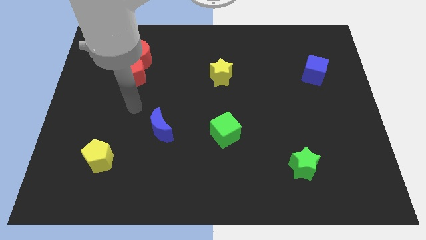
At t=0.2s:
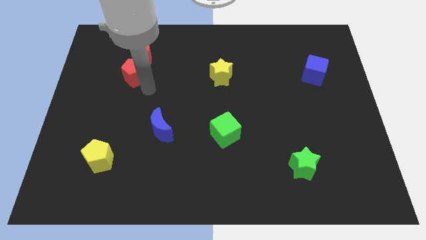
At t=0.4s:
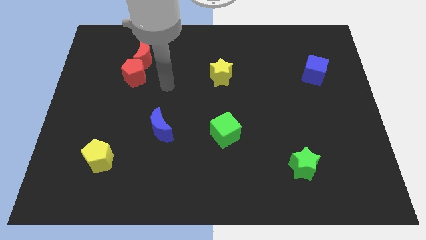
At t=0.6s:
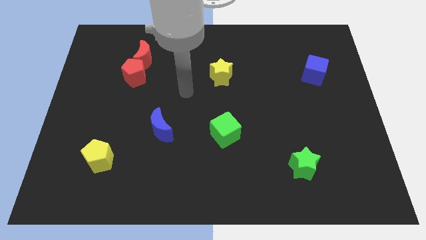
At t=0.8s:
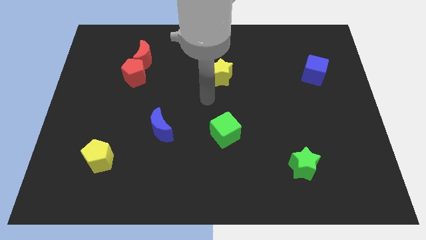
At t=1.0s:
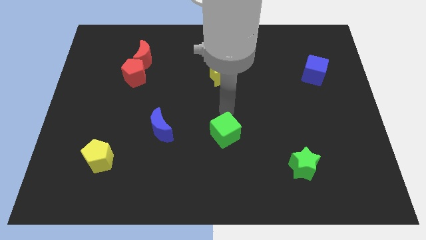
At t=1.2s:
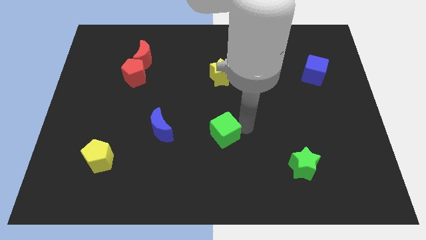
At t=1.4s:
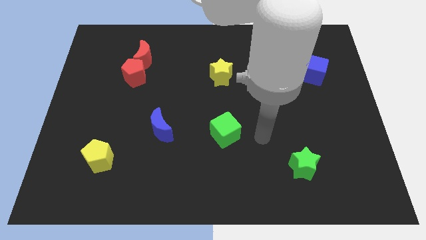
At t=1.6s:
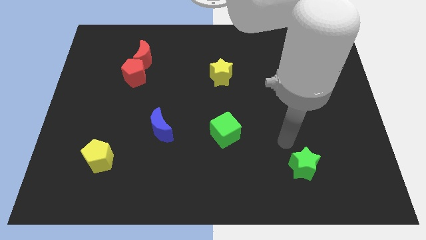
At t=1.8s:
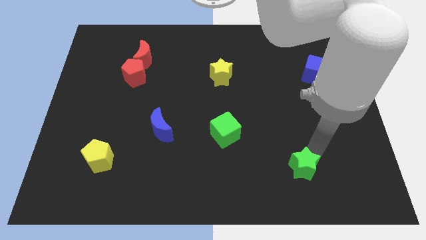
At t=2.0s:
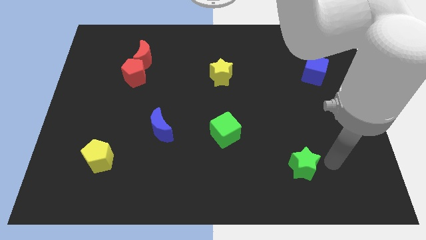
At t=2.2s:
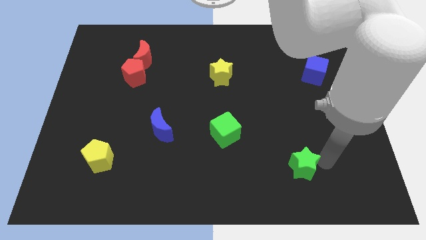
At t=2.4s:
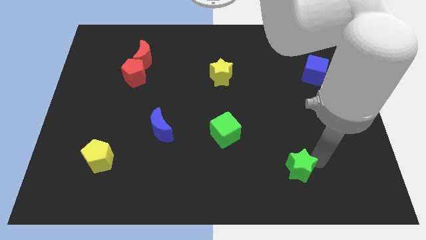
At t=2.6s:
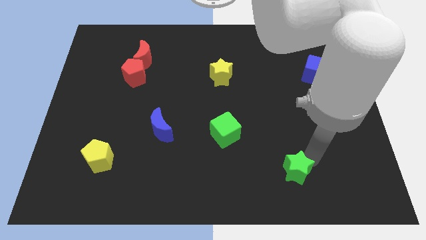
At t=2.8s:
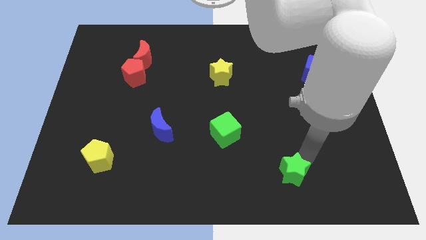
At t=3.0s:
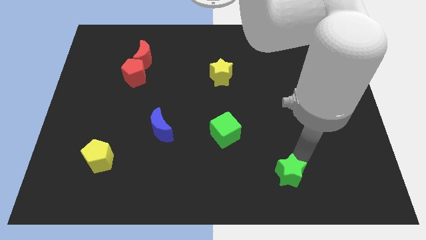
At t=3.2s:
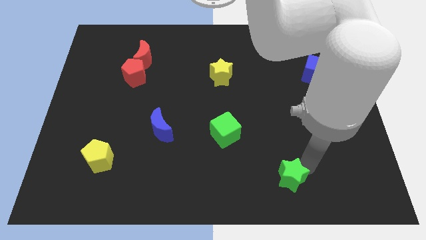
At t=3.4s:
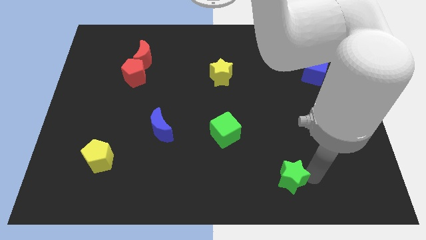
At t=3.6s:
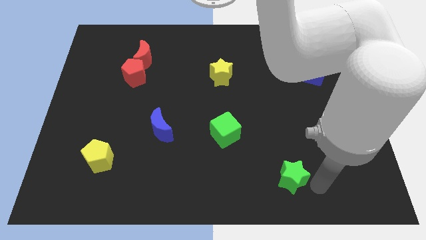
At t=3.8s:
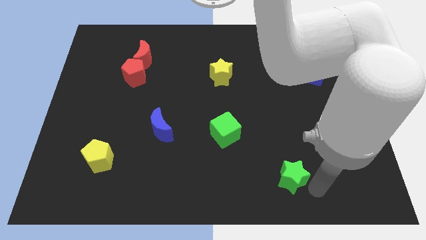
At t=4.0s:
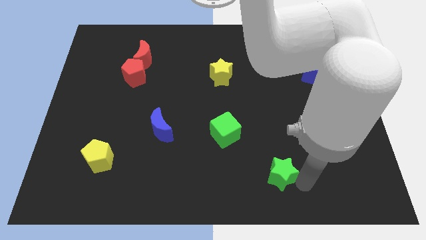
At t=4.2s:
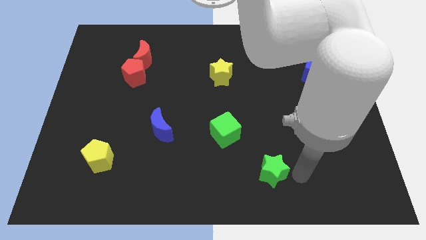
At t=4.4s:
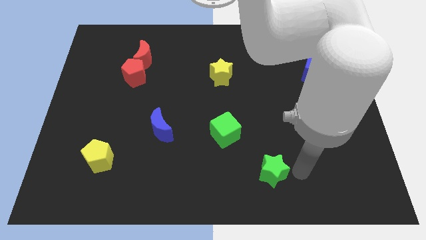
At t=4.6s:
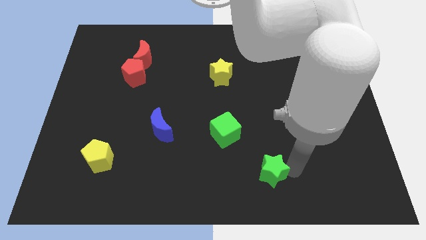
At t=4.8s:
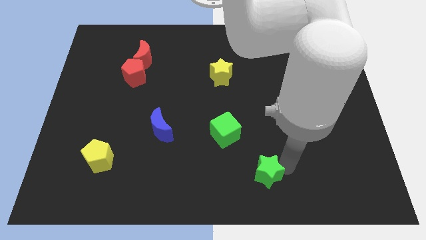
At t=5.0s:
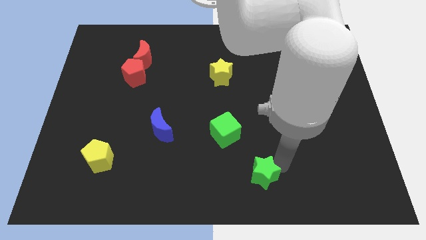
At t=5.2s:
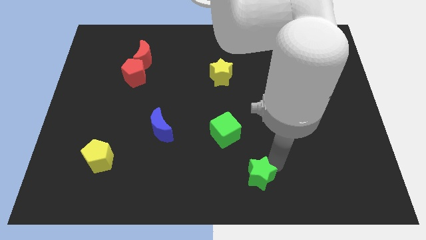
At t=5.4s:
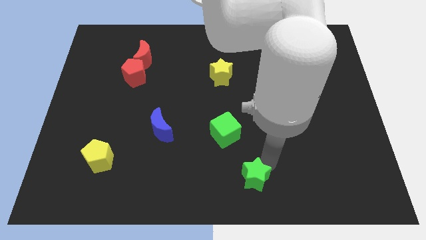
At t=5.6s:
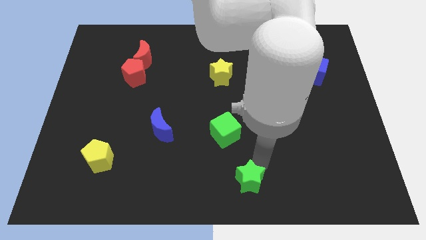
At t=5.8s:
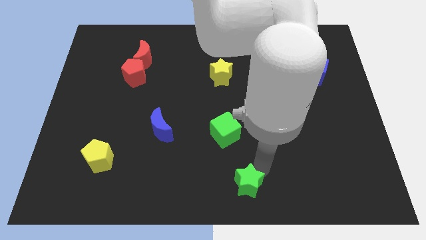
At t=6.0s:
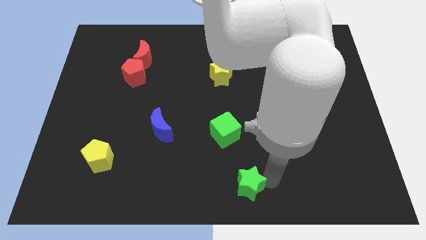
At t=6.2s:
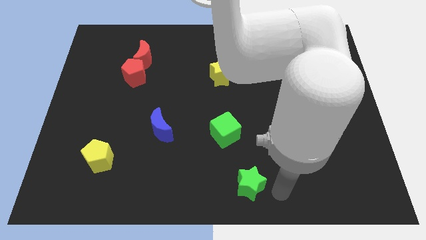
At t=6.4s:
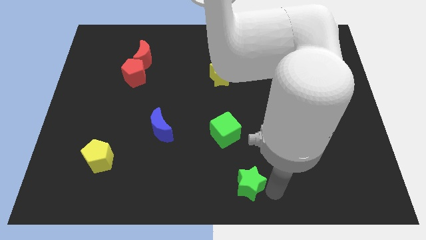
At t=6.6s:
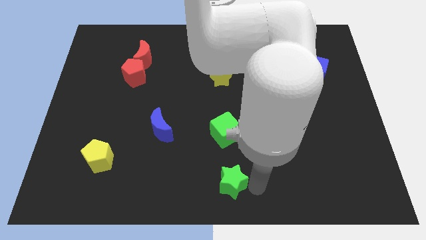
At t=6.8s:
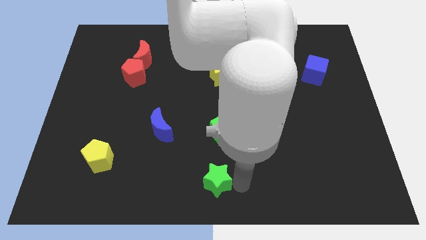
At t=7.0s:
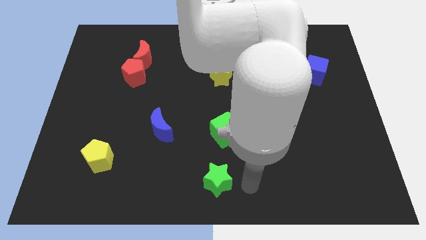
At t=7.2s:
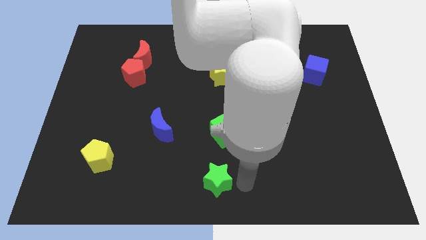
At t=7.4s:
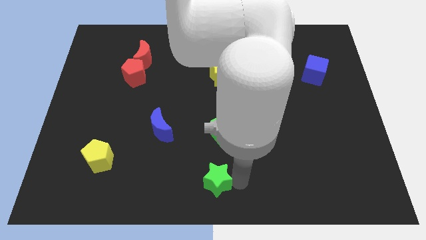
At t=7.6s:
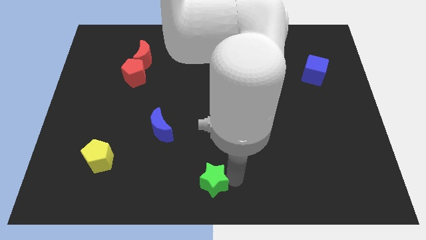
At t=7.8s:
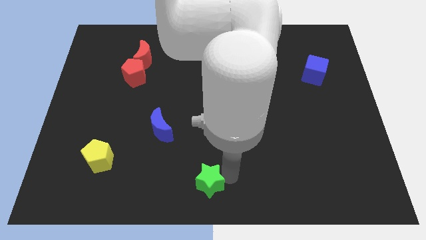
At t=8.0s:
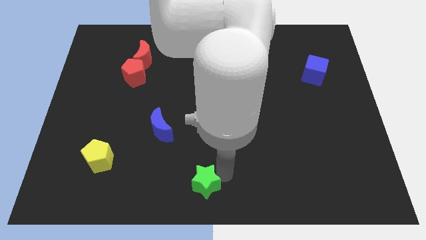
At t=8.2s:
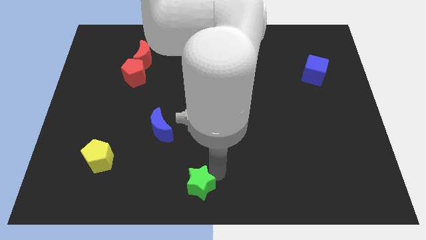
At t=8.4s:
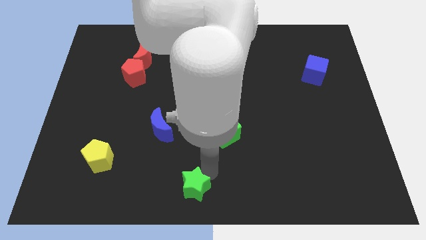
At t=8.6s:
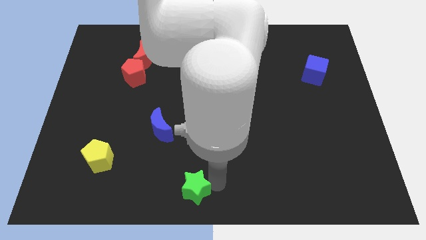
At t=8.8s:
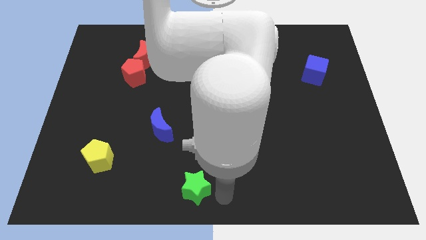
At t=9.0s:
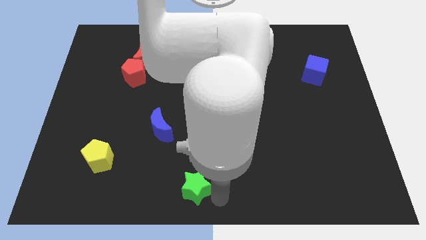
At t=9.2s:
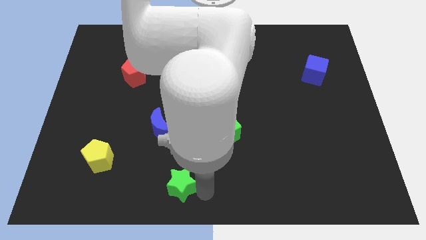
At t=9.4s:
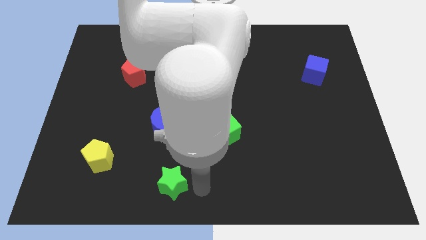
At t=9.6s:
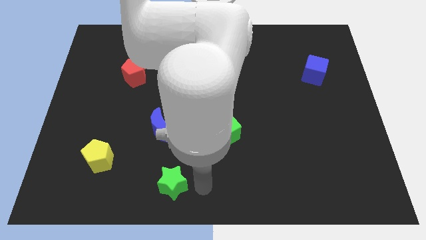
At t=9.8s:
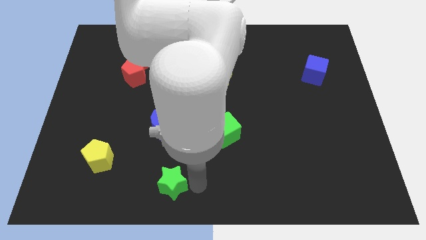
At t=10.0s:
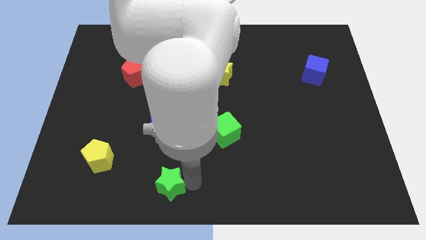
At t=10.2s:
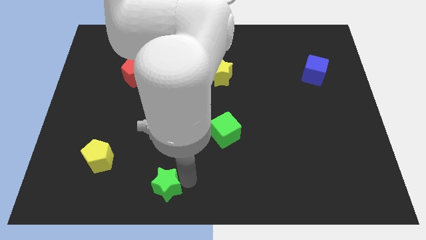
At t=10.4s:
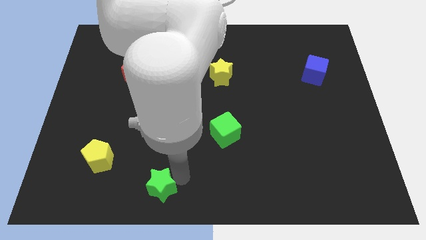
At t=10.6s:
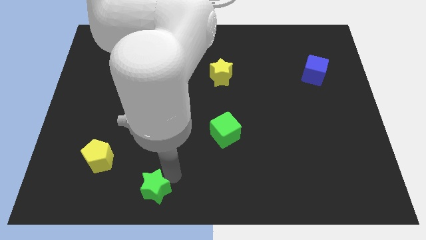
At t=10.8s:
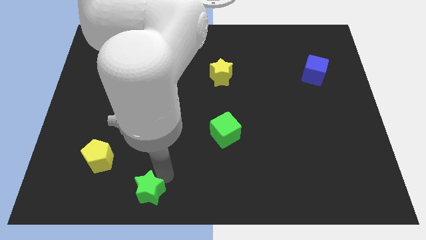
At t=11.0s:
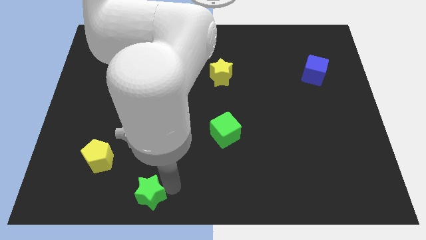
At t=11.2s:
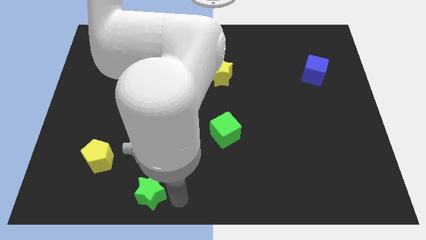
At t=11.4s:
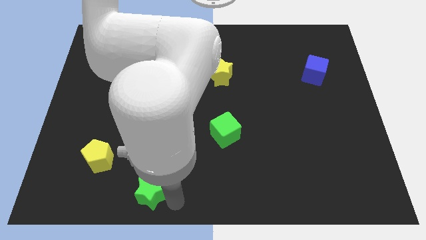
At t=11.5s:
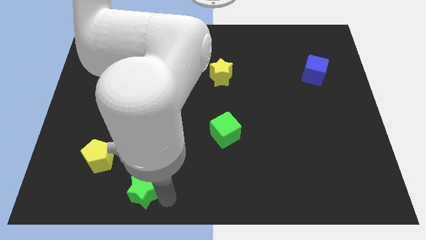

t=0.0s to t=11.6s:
slide the green star to the bottom right of the yellow pentagon

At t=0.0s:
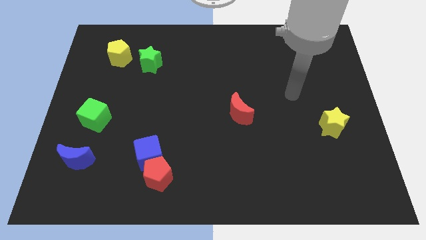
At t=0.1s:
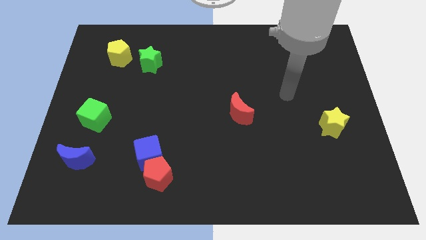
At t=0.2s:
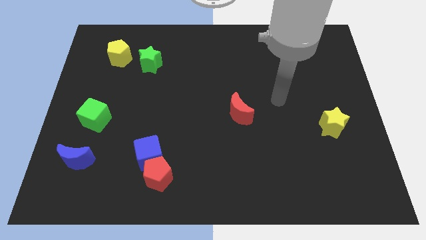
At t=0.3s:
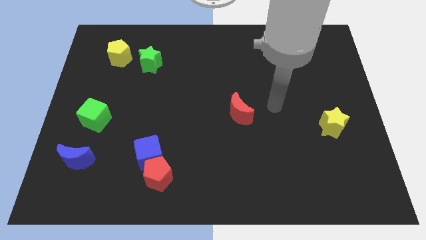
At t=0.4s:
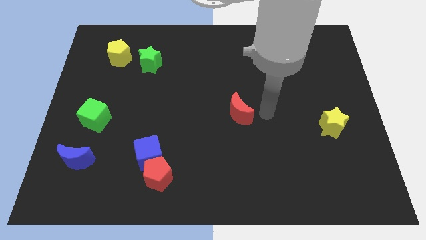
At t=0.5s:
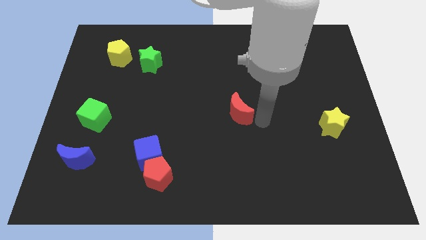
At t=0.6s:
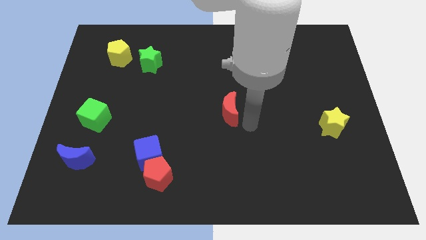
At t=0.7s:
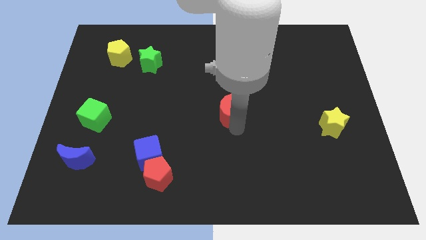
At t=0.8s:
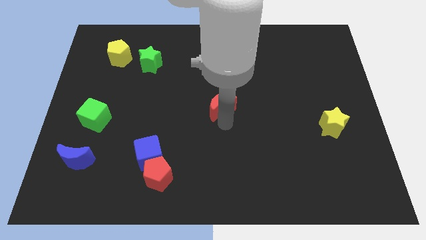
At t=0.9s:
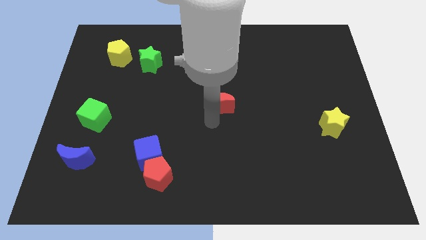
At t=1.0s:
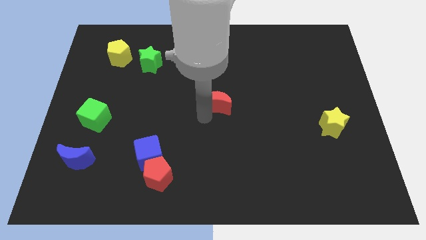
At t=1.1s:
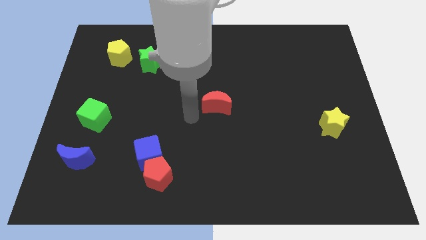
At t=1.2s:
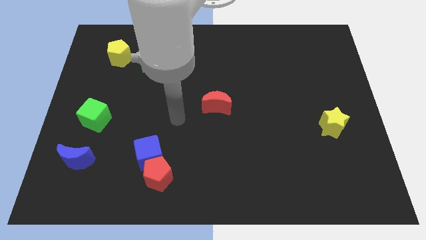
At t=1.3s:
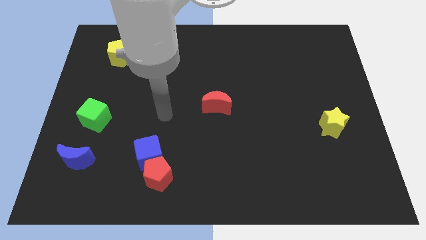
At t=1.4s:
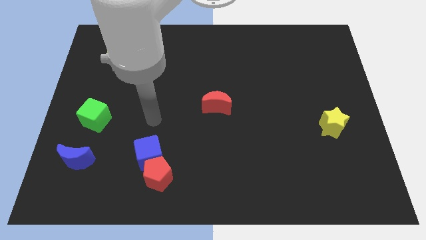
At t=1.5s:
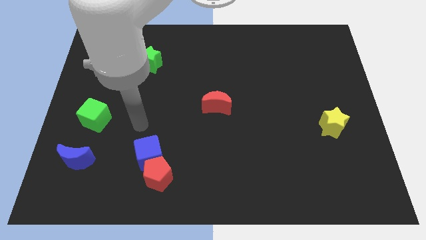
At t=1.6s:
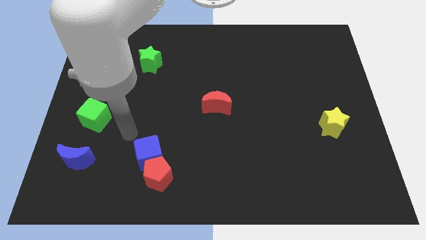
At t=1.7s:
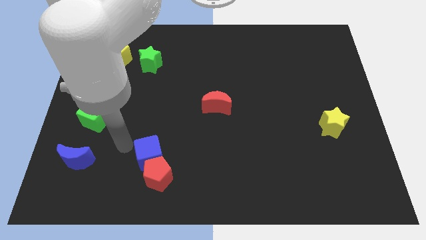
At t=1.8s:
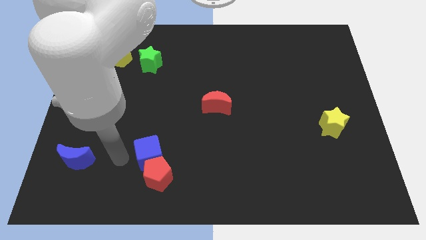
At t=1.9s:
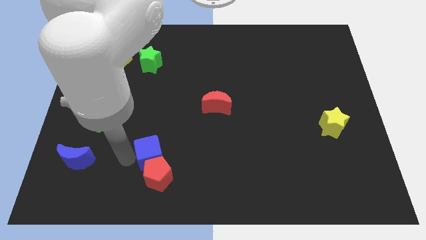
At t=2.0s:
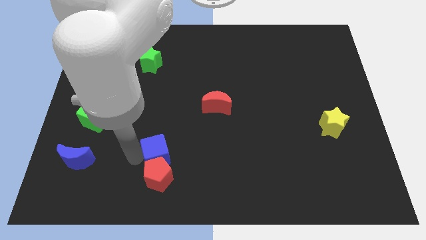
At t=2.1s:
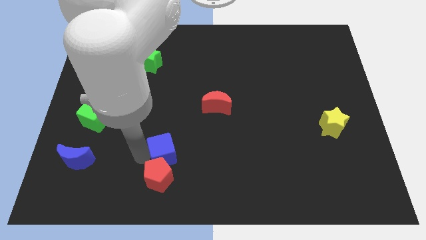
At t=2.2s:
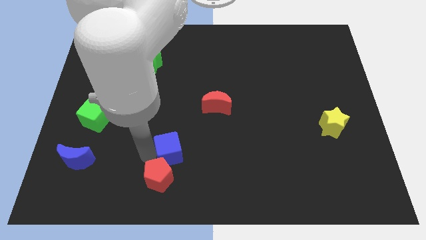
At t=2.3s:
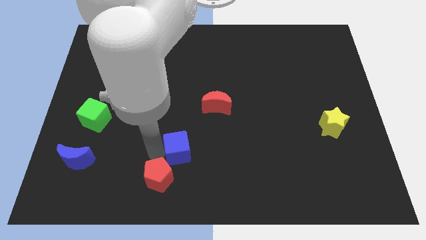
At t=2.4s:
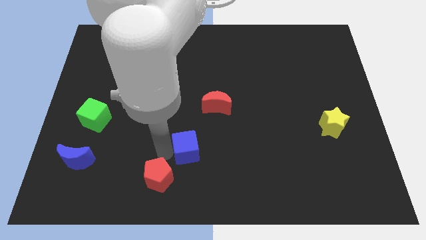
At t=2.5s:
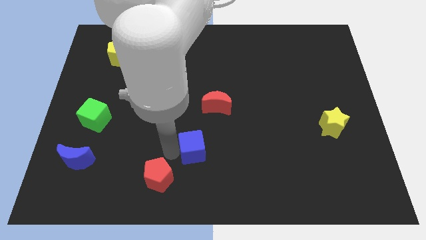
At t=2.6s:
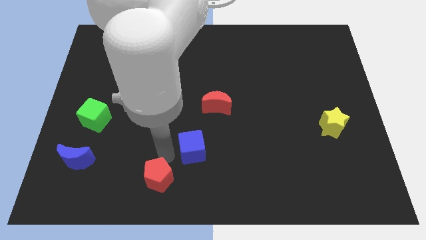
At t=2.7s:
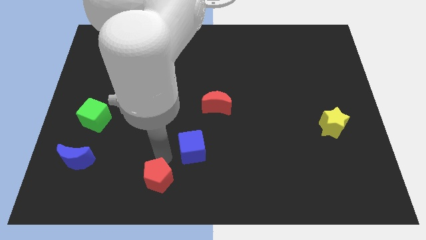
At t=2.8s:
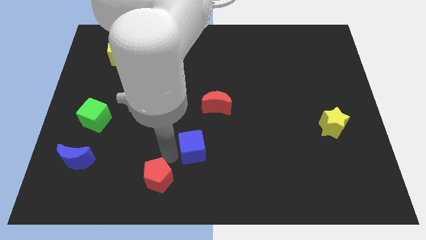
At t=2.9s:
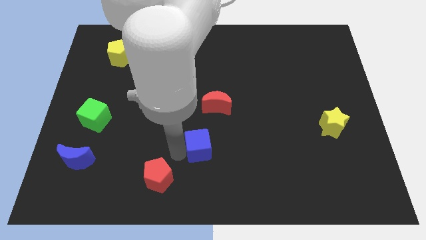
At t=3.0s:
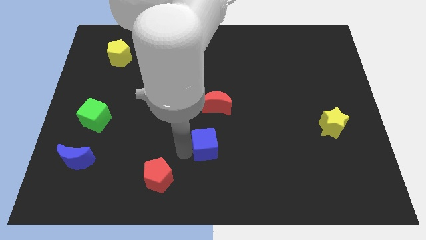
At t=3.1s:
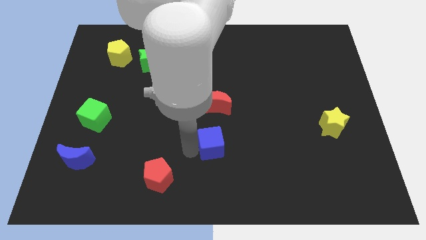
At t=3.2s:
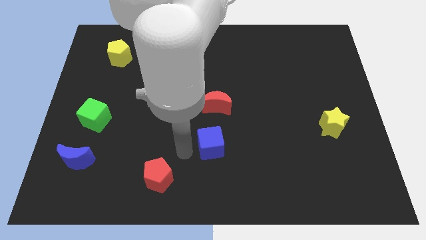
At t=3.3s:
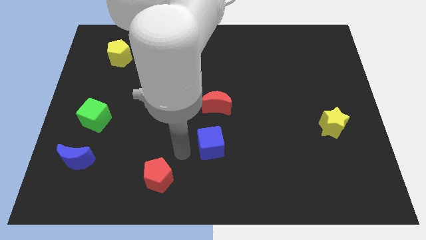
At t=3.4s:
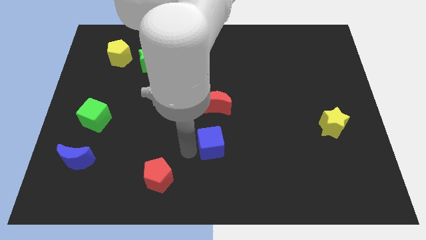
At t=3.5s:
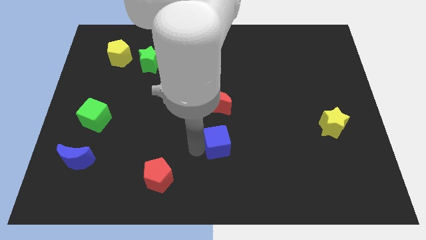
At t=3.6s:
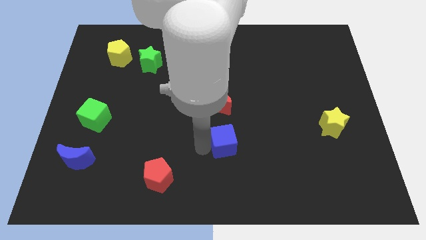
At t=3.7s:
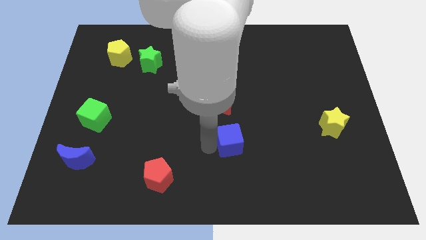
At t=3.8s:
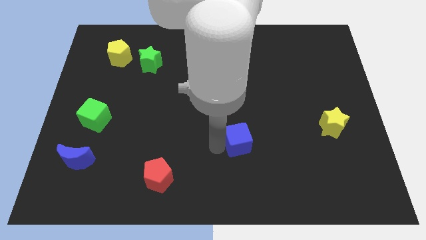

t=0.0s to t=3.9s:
move the blue cube to the bottom right of the red moon
